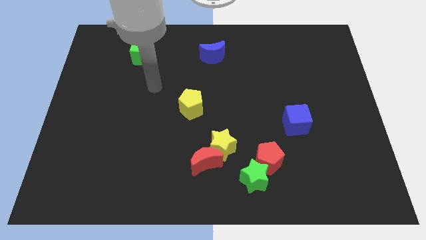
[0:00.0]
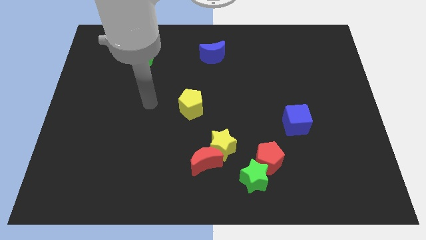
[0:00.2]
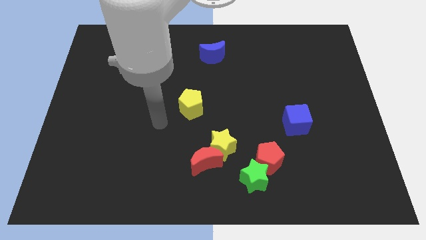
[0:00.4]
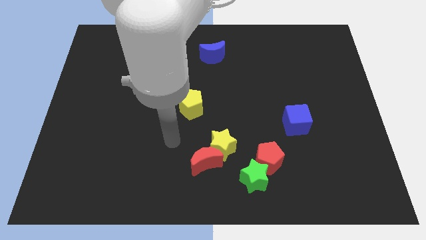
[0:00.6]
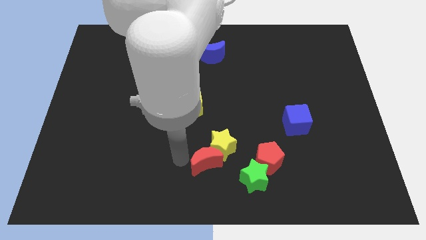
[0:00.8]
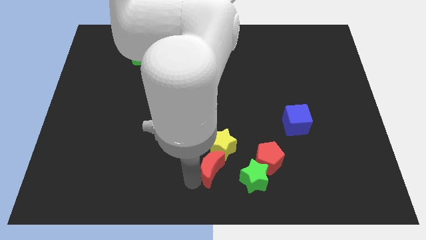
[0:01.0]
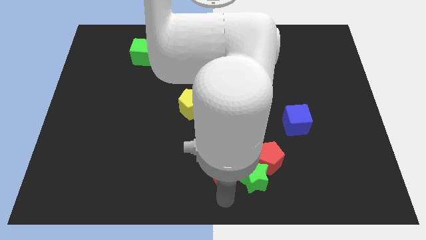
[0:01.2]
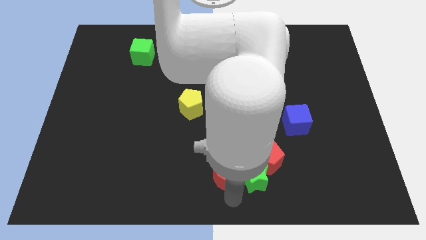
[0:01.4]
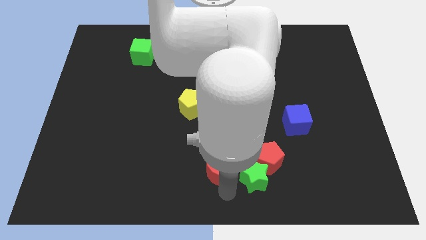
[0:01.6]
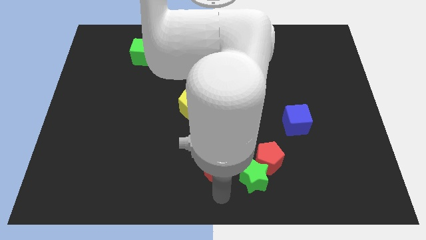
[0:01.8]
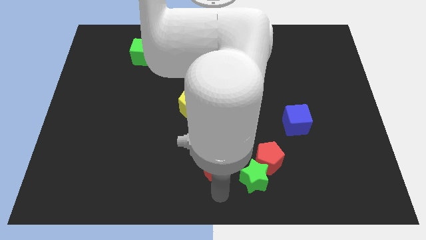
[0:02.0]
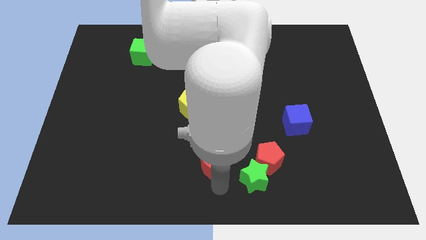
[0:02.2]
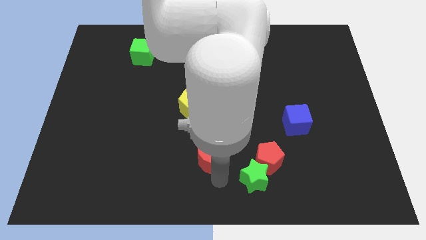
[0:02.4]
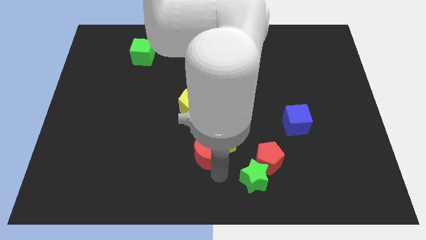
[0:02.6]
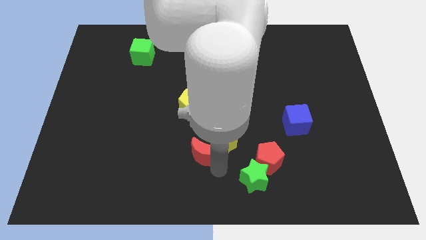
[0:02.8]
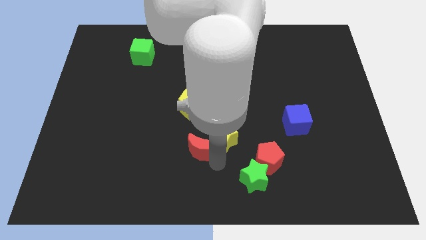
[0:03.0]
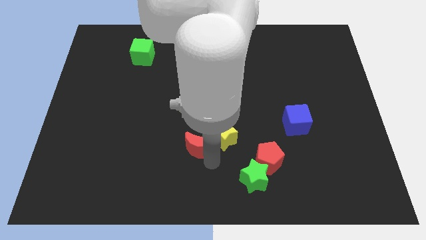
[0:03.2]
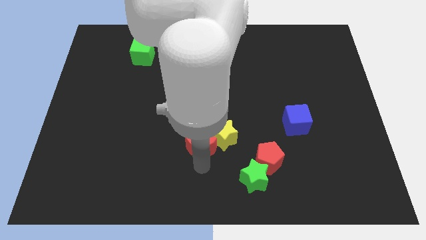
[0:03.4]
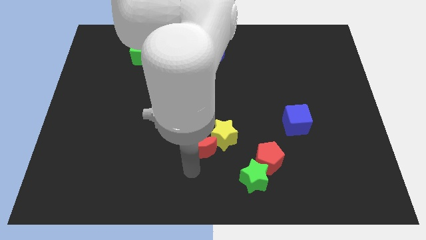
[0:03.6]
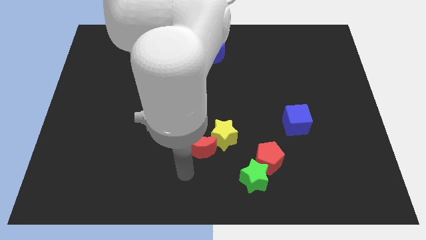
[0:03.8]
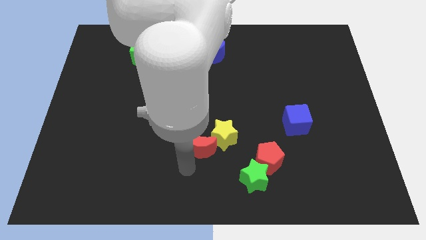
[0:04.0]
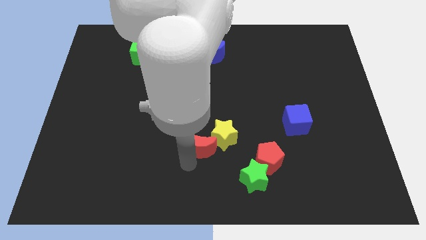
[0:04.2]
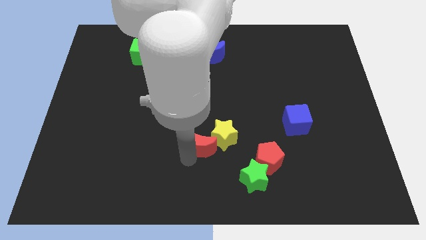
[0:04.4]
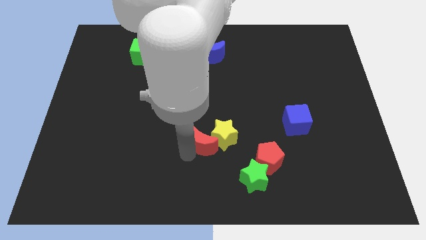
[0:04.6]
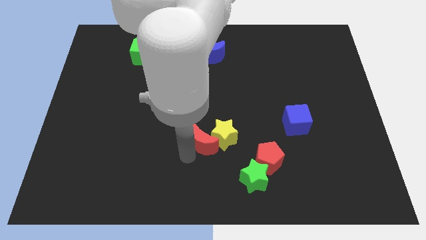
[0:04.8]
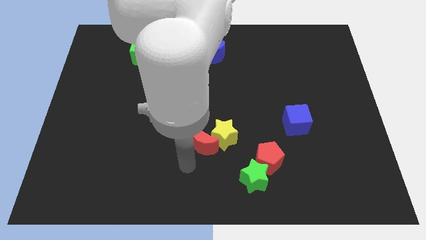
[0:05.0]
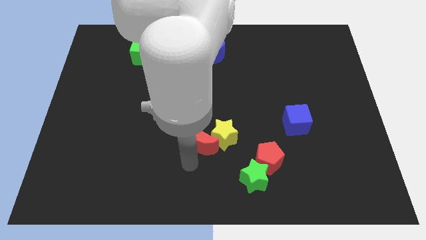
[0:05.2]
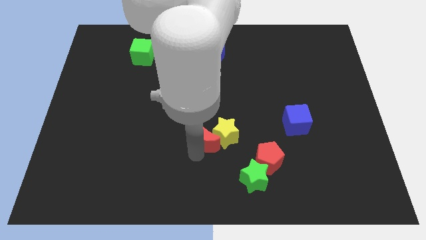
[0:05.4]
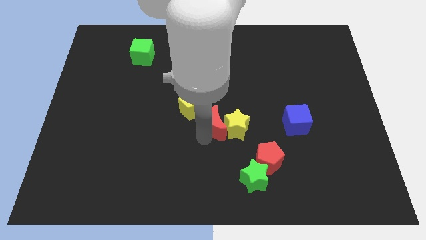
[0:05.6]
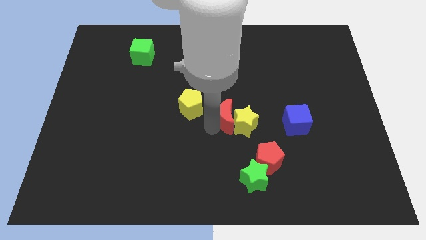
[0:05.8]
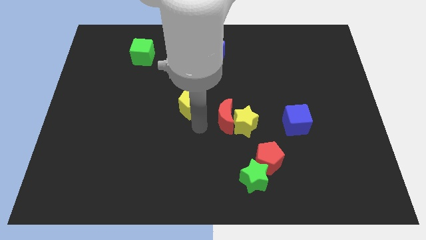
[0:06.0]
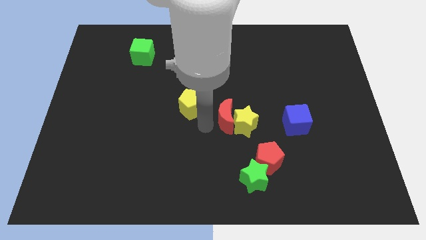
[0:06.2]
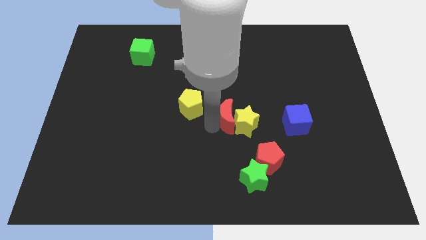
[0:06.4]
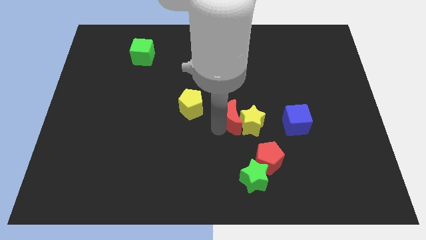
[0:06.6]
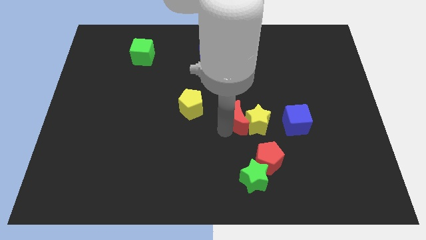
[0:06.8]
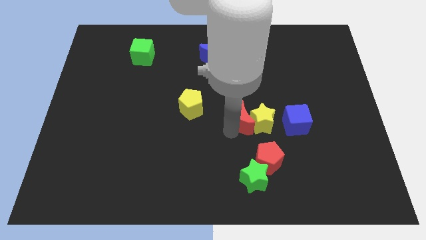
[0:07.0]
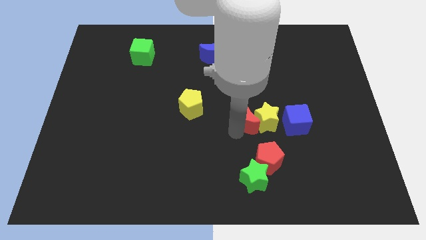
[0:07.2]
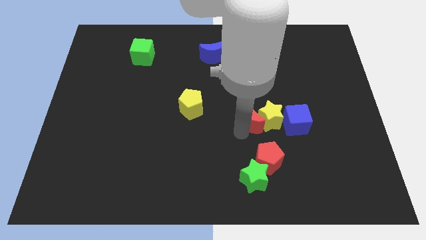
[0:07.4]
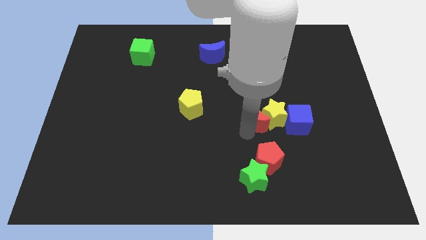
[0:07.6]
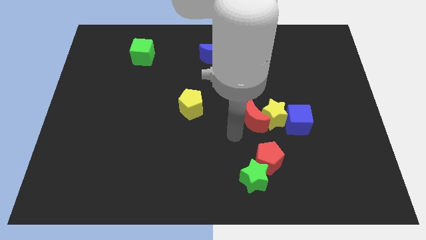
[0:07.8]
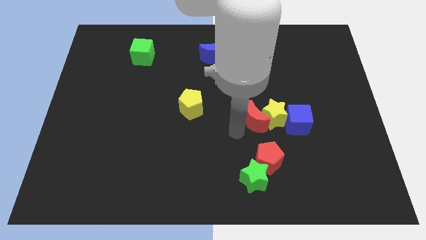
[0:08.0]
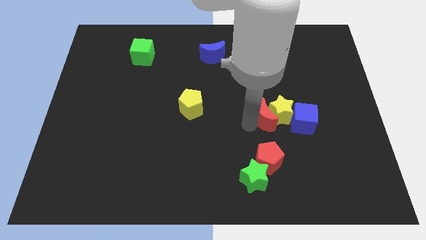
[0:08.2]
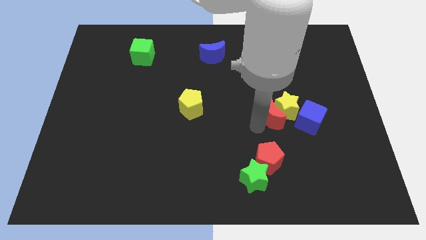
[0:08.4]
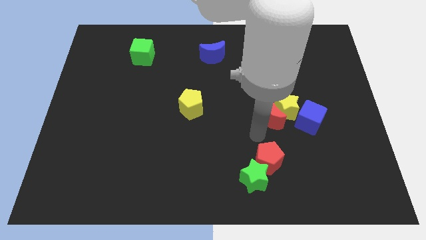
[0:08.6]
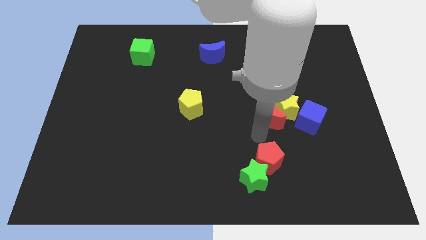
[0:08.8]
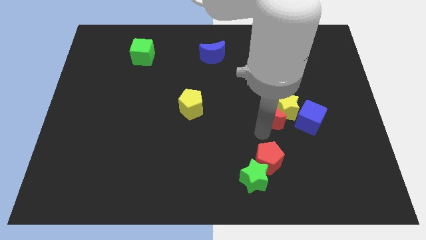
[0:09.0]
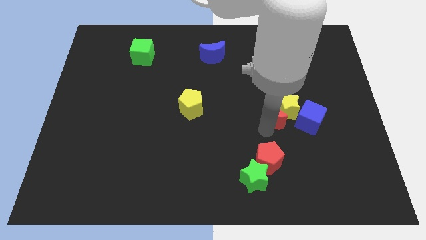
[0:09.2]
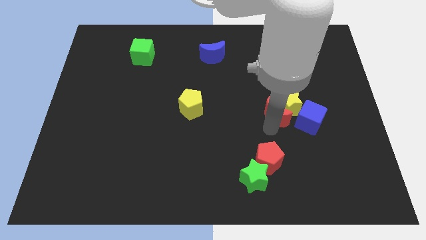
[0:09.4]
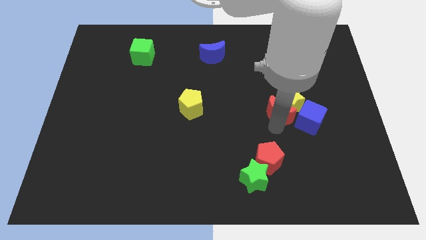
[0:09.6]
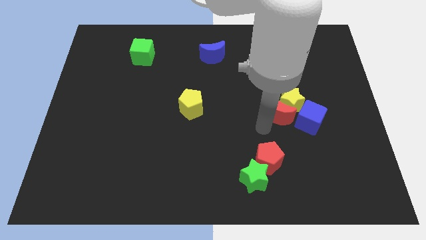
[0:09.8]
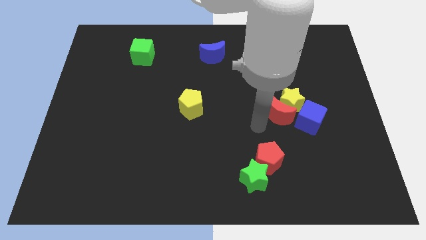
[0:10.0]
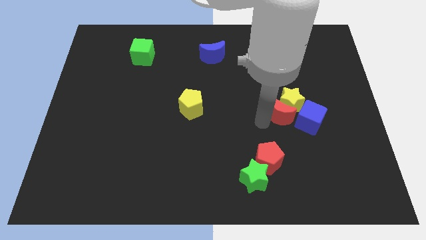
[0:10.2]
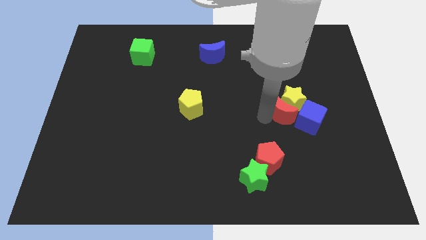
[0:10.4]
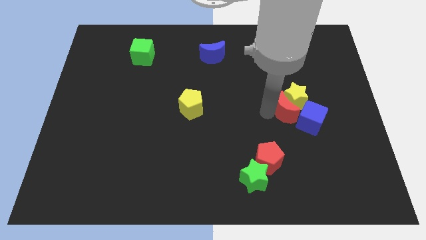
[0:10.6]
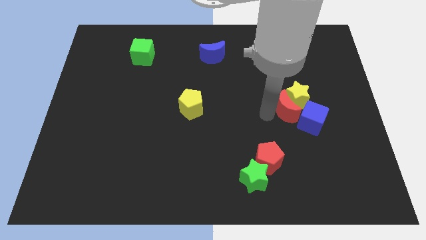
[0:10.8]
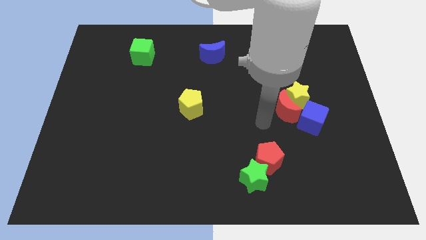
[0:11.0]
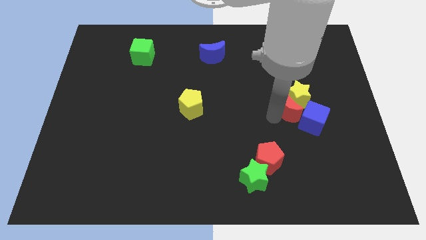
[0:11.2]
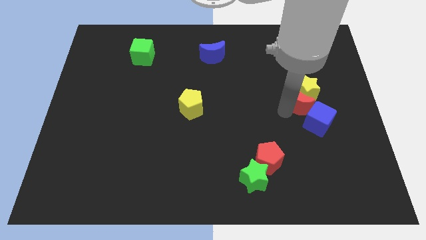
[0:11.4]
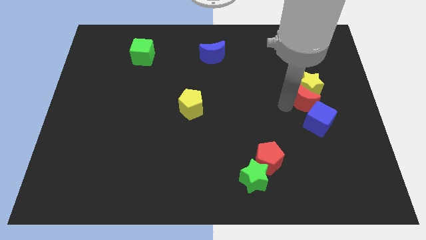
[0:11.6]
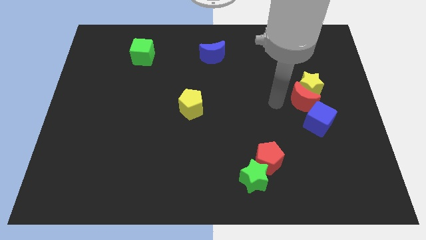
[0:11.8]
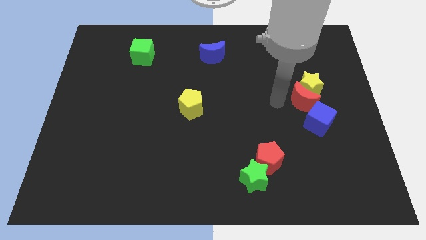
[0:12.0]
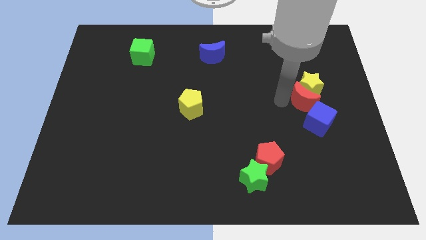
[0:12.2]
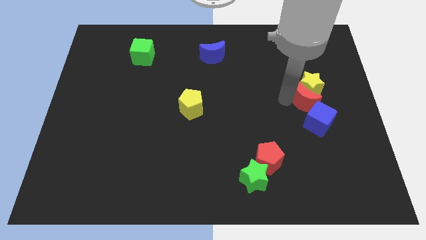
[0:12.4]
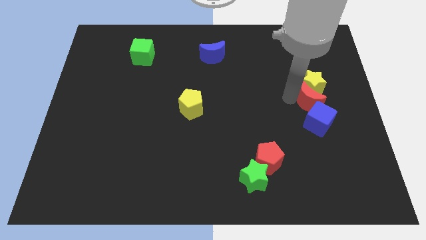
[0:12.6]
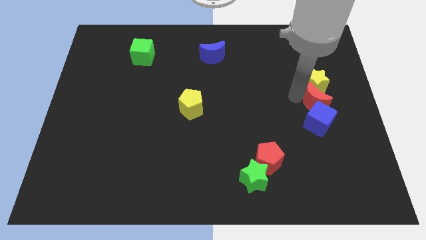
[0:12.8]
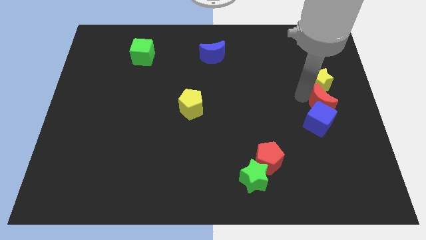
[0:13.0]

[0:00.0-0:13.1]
push the red moon to the right side of the board
